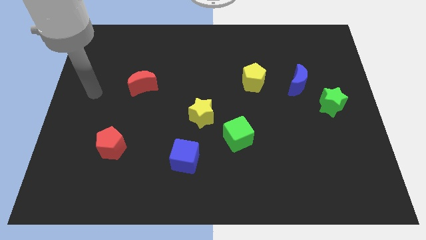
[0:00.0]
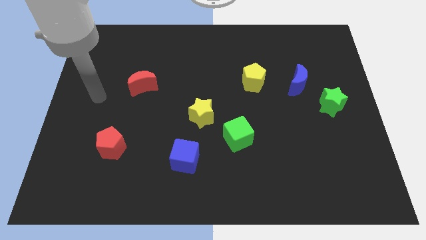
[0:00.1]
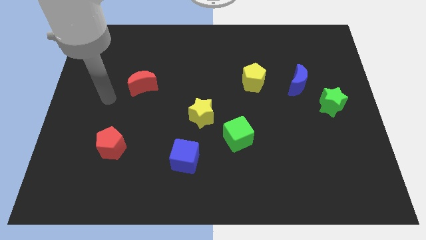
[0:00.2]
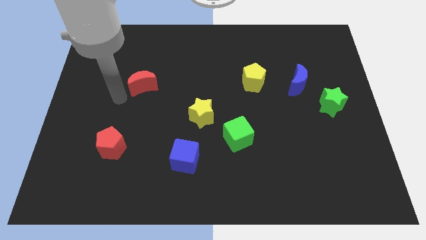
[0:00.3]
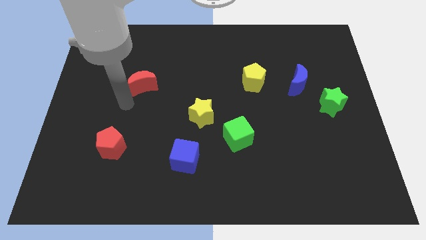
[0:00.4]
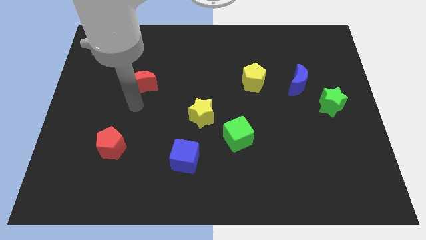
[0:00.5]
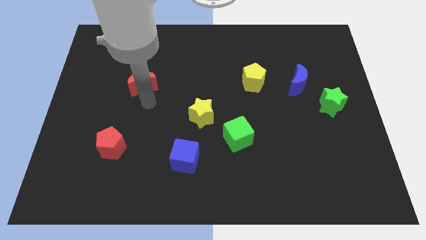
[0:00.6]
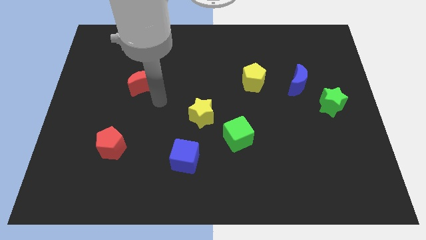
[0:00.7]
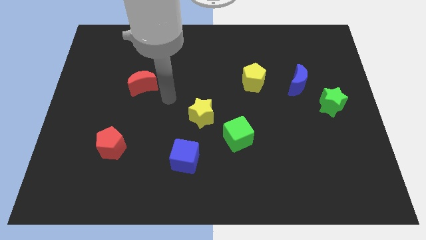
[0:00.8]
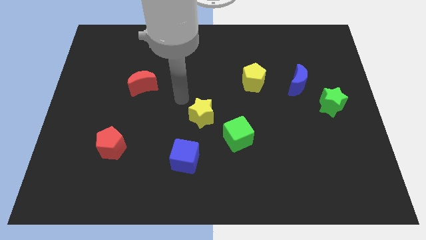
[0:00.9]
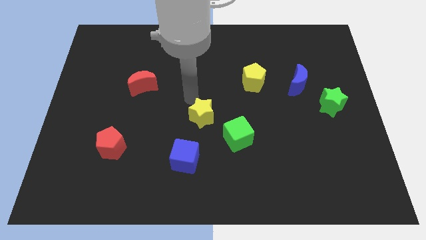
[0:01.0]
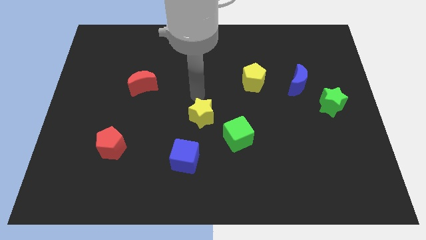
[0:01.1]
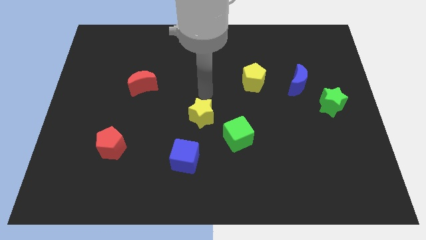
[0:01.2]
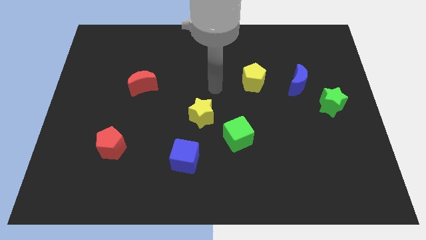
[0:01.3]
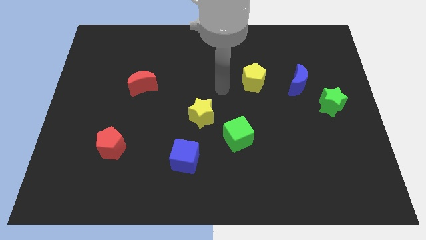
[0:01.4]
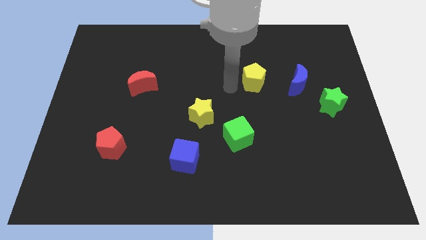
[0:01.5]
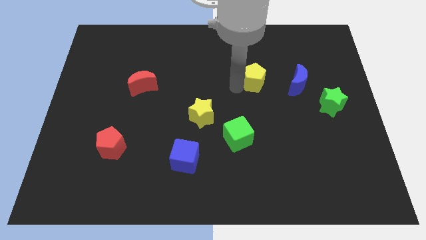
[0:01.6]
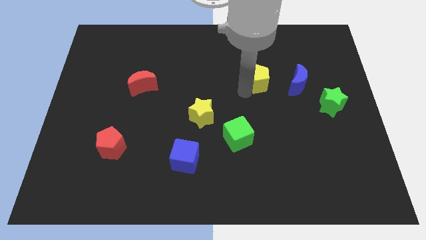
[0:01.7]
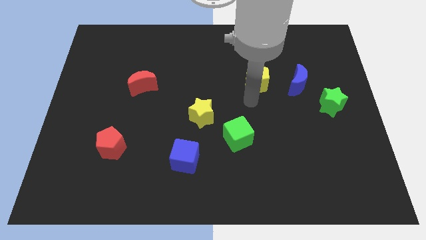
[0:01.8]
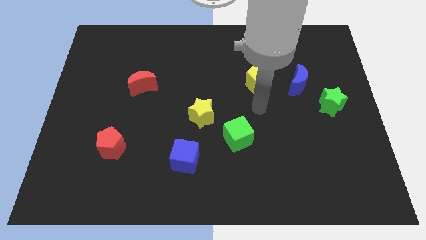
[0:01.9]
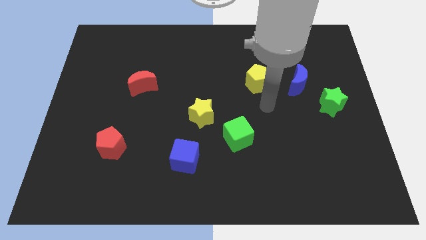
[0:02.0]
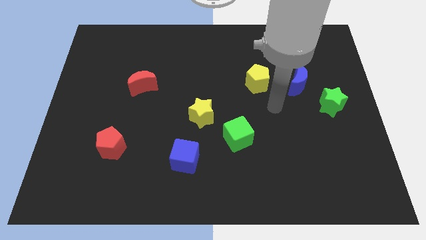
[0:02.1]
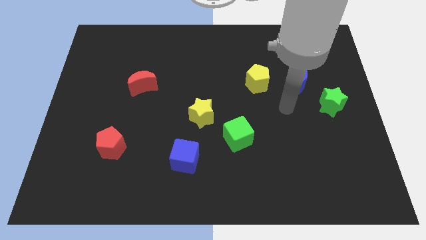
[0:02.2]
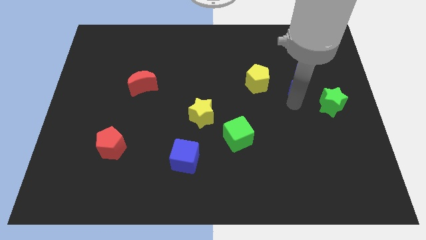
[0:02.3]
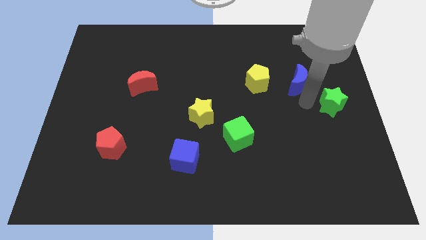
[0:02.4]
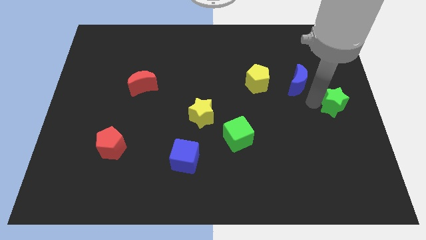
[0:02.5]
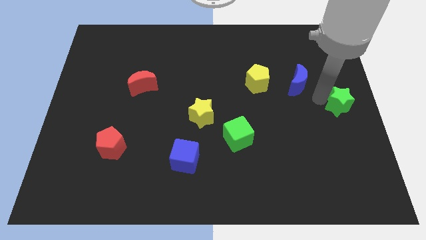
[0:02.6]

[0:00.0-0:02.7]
pull the blue moon apart from the green star

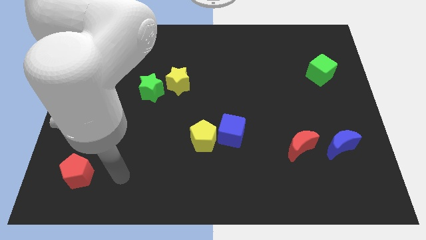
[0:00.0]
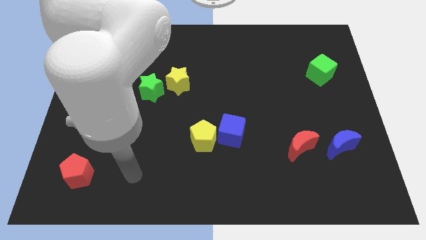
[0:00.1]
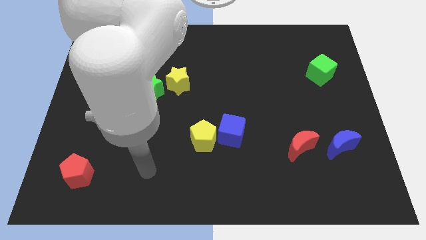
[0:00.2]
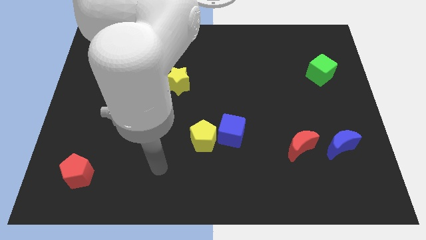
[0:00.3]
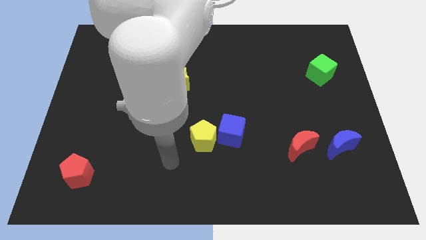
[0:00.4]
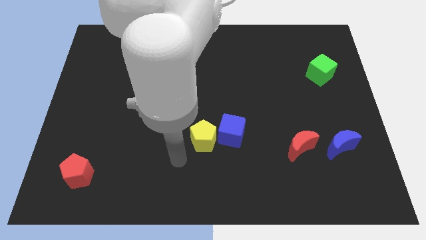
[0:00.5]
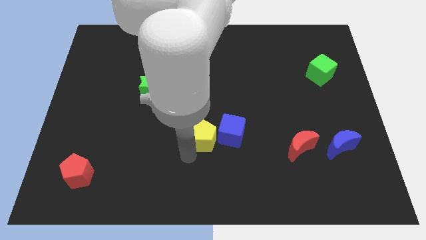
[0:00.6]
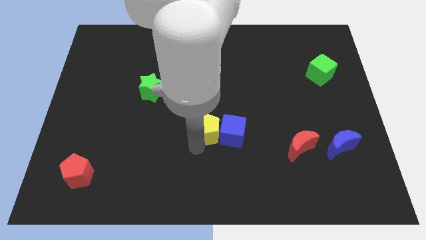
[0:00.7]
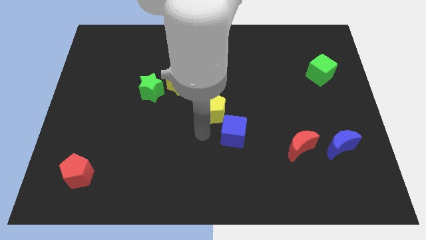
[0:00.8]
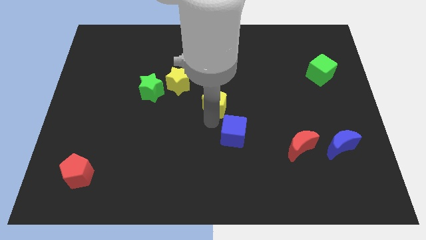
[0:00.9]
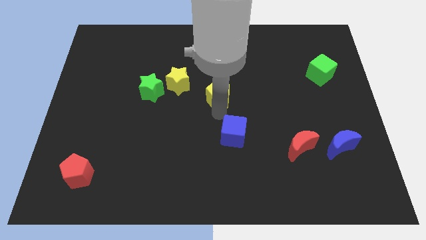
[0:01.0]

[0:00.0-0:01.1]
move the blue cube away from the yellow pentagon

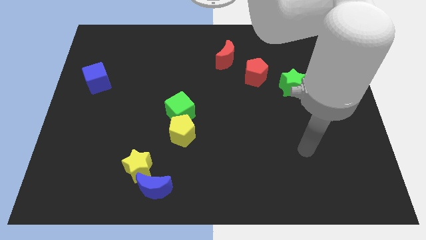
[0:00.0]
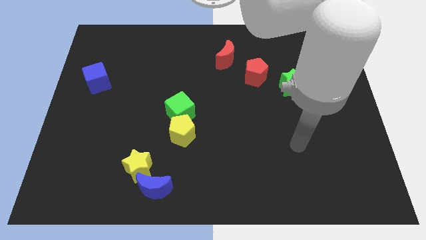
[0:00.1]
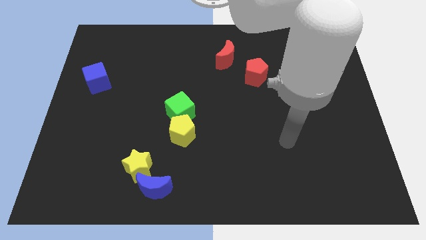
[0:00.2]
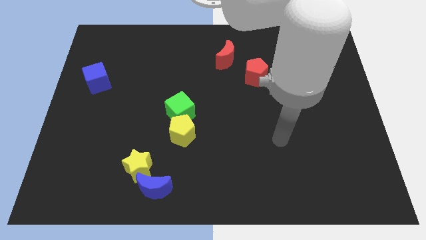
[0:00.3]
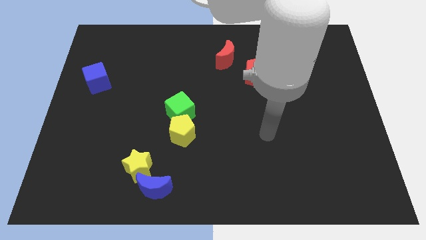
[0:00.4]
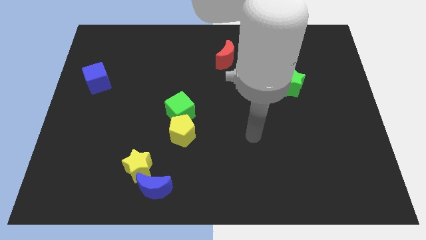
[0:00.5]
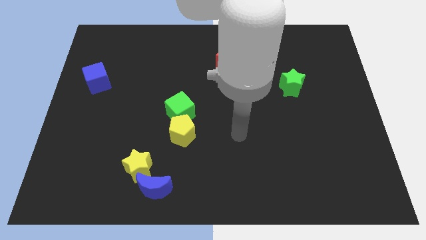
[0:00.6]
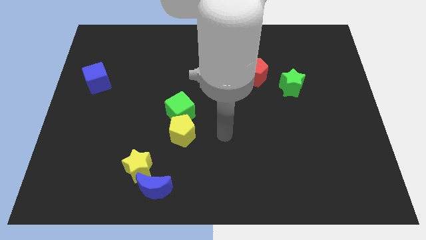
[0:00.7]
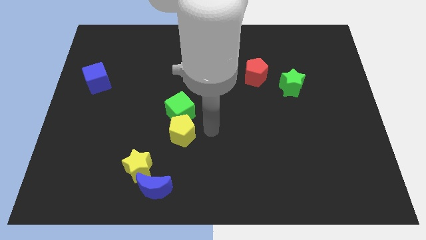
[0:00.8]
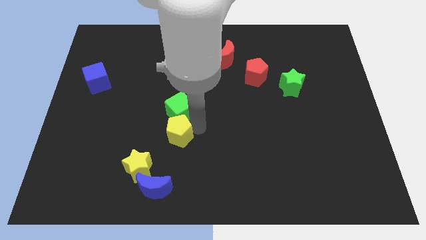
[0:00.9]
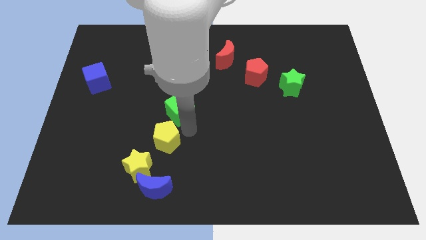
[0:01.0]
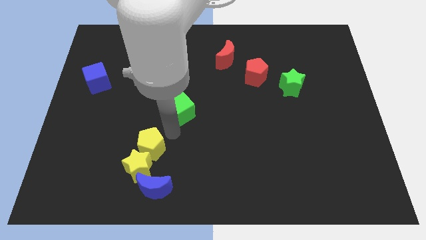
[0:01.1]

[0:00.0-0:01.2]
move the green cube away from the yellow pentagon

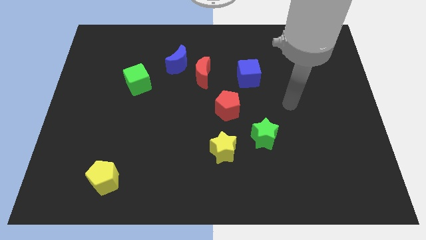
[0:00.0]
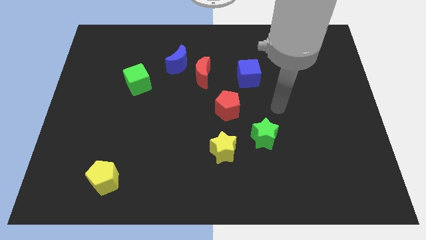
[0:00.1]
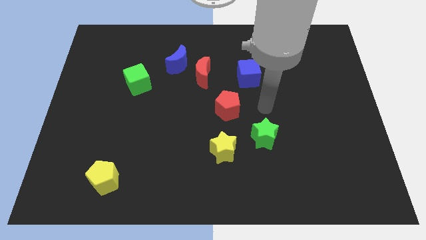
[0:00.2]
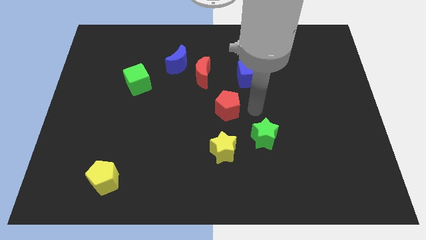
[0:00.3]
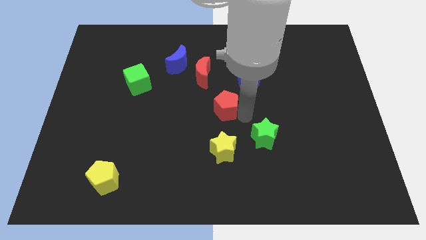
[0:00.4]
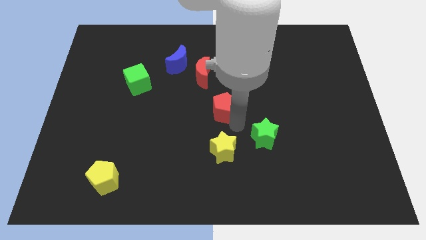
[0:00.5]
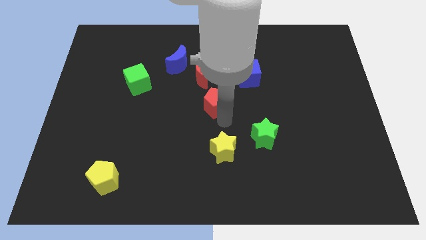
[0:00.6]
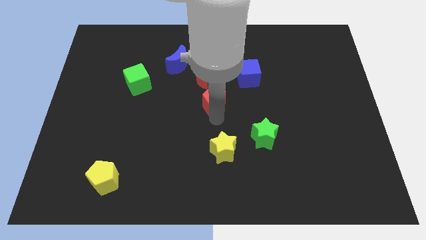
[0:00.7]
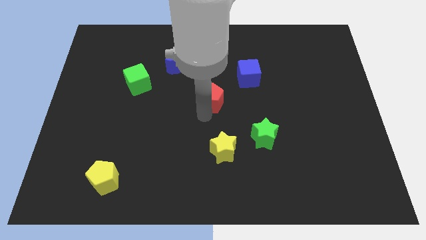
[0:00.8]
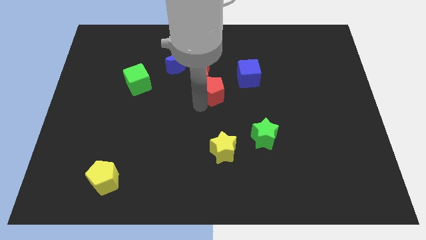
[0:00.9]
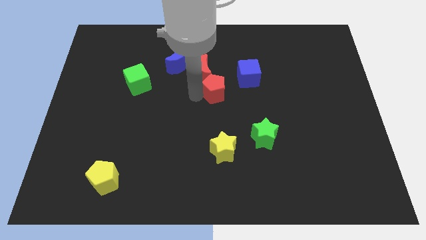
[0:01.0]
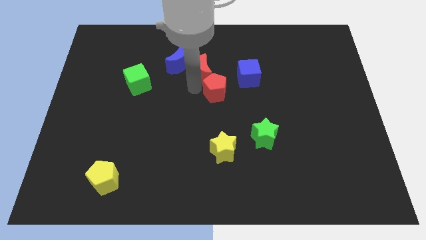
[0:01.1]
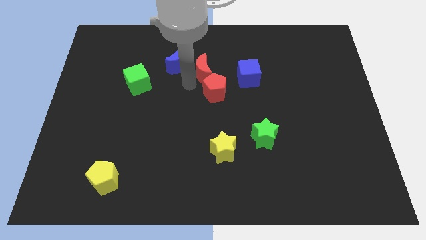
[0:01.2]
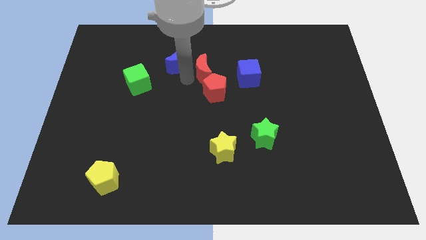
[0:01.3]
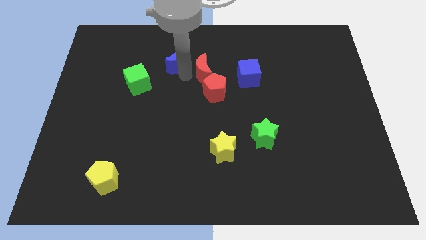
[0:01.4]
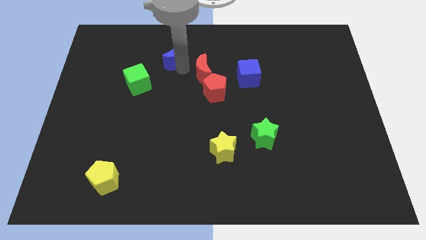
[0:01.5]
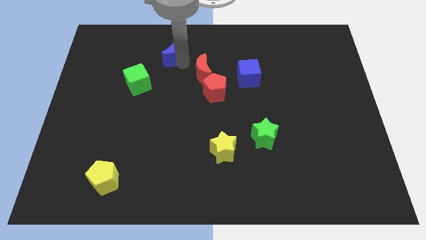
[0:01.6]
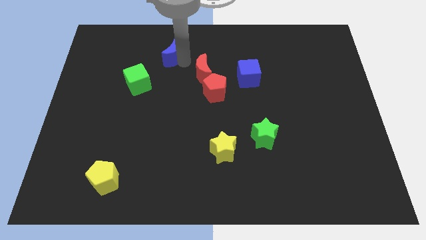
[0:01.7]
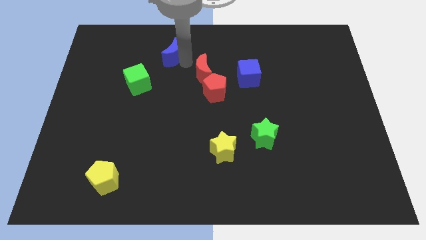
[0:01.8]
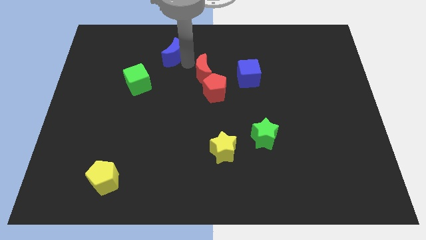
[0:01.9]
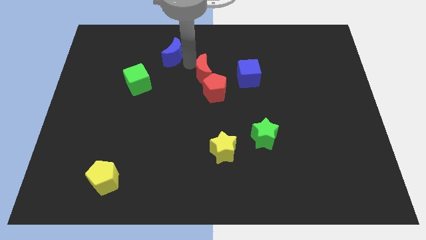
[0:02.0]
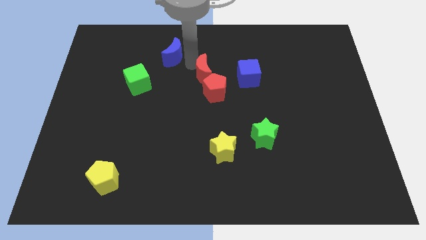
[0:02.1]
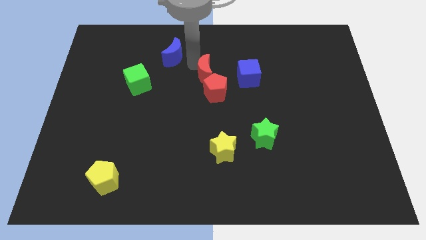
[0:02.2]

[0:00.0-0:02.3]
pull the red moon apart from the blue moon

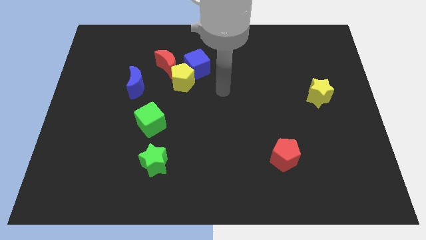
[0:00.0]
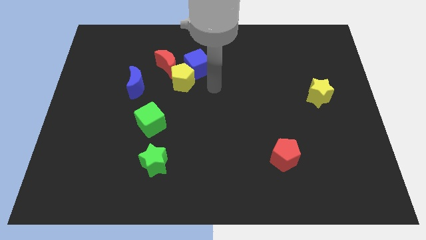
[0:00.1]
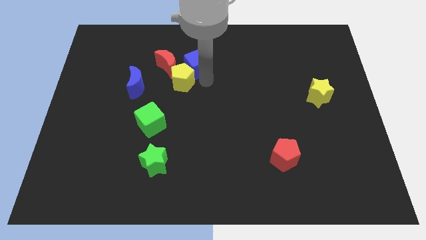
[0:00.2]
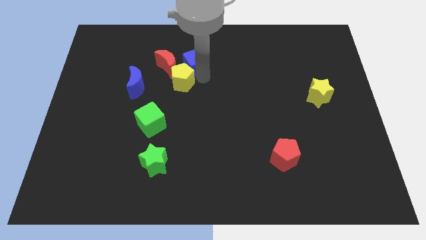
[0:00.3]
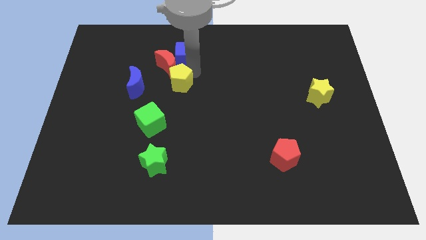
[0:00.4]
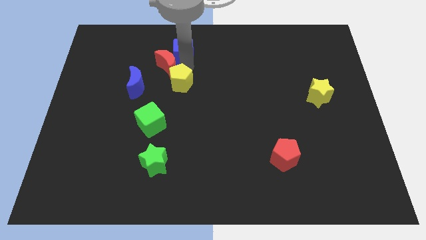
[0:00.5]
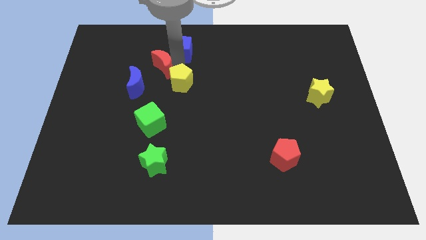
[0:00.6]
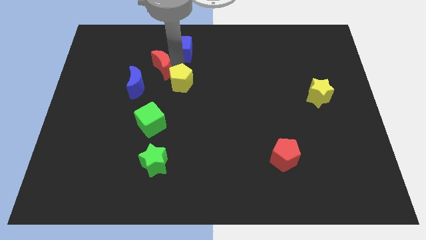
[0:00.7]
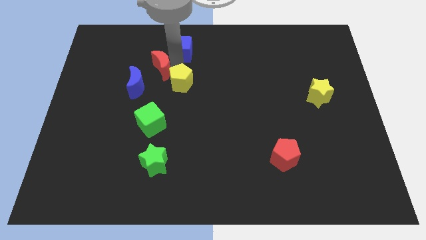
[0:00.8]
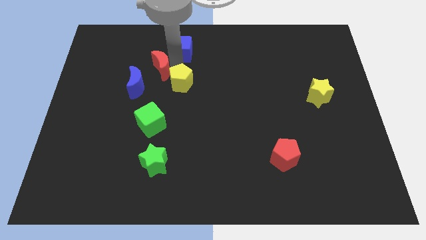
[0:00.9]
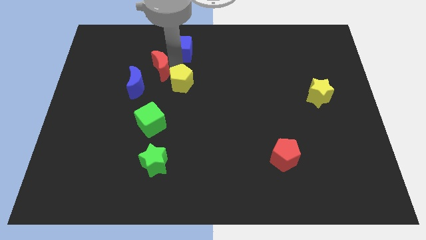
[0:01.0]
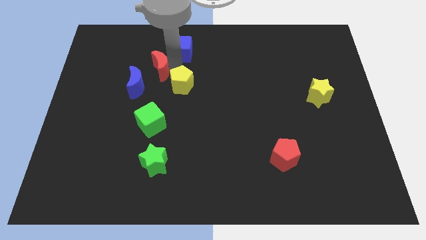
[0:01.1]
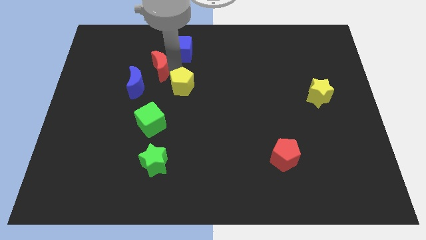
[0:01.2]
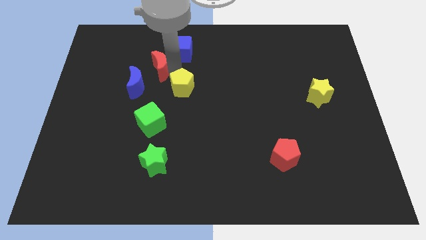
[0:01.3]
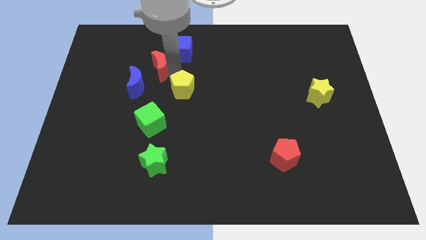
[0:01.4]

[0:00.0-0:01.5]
pull the yellow pentagon apart from the blue cube and red moon

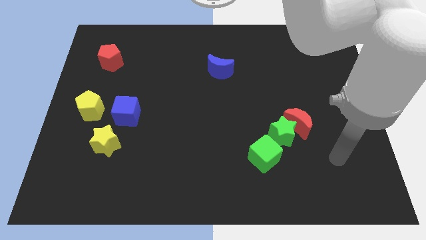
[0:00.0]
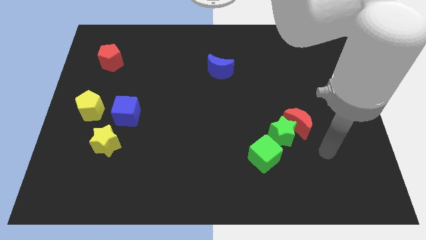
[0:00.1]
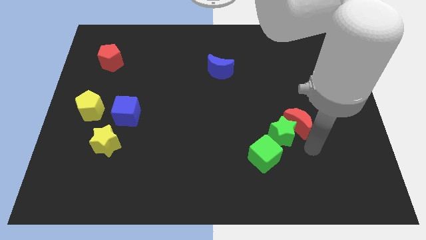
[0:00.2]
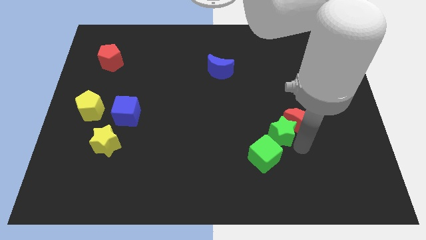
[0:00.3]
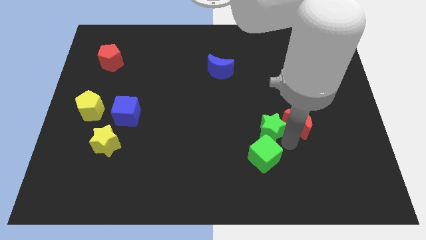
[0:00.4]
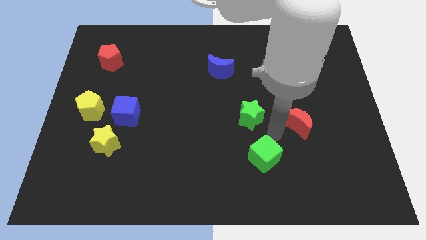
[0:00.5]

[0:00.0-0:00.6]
pull the red moon apart from the green star
